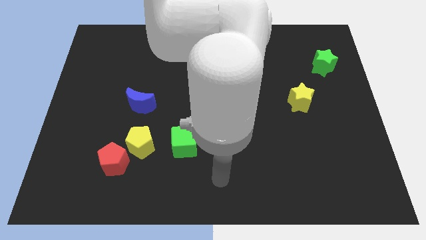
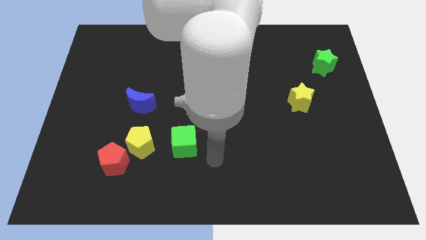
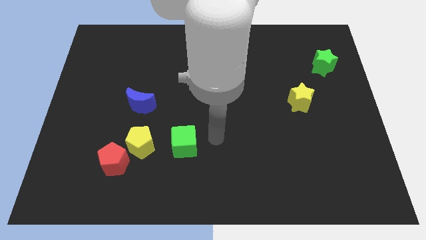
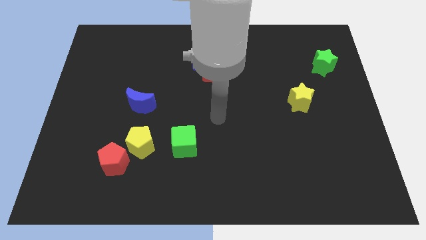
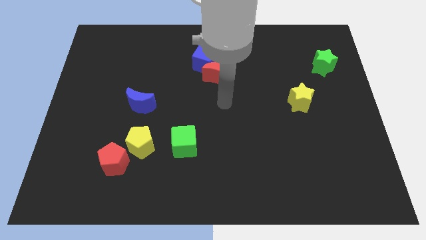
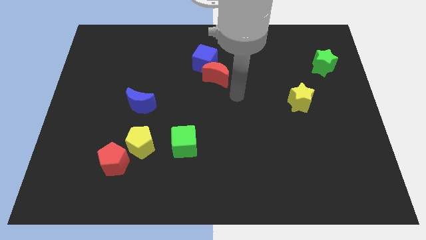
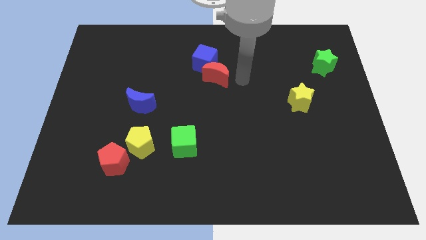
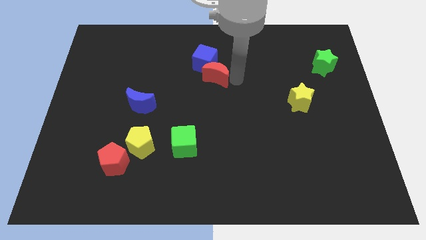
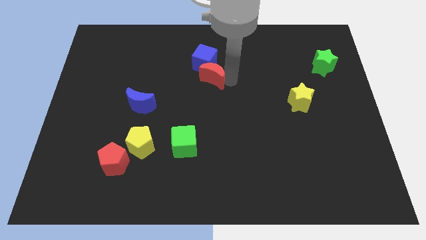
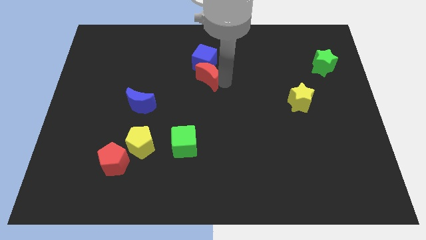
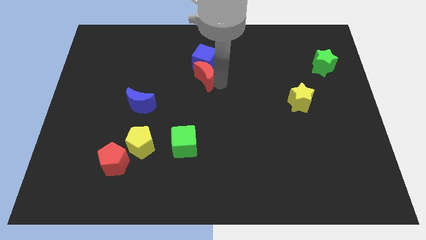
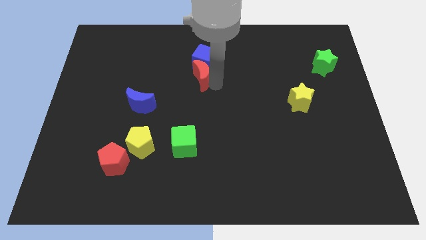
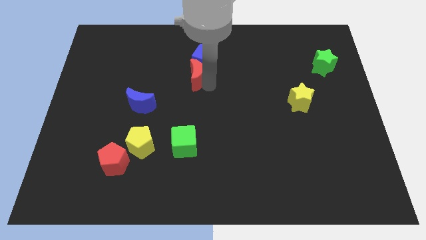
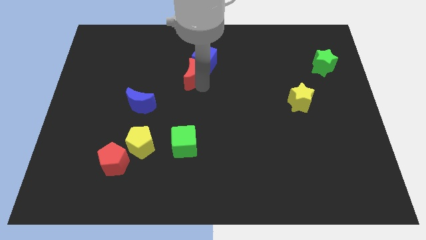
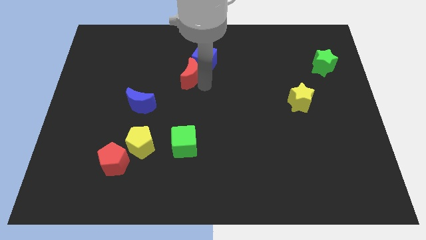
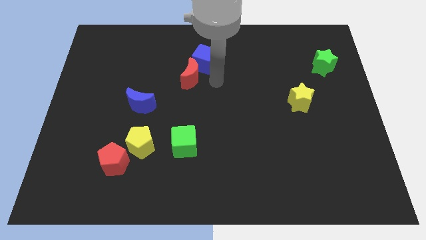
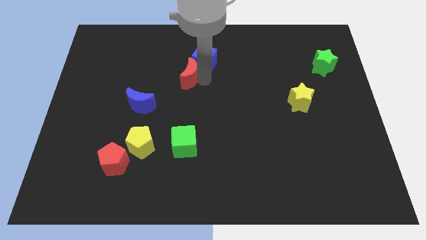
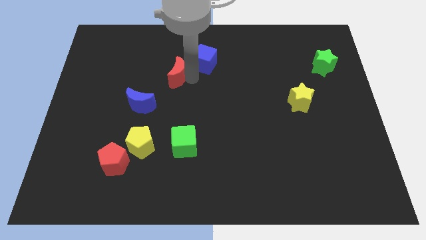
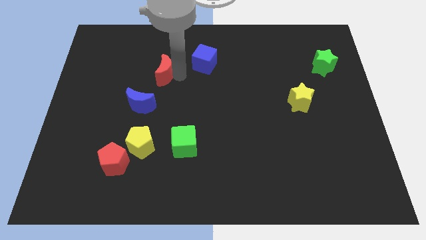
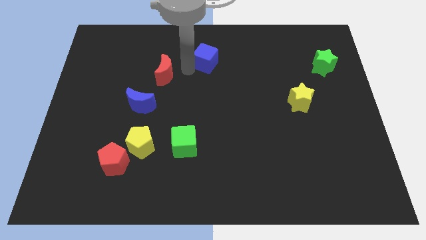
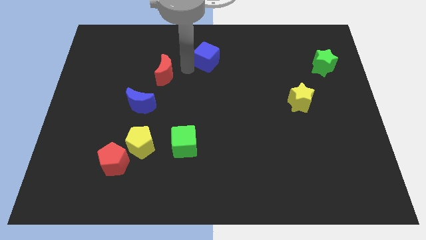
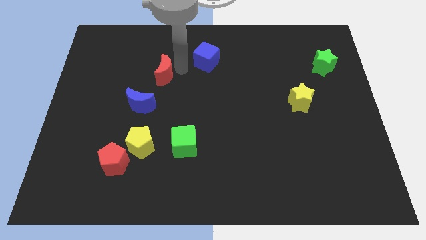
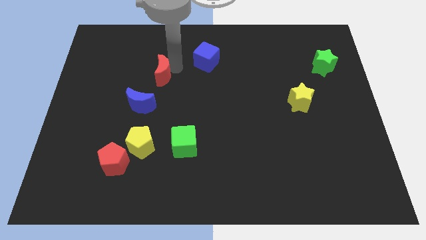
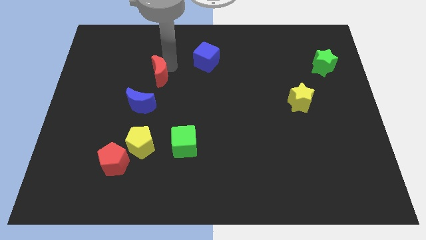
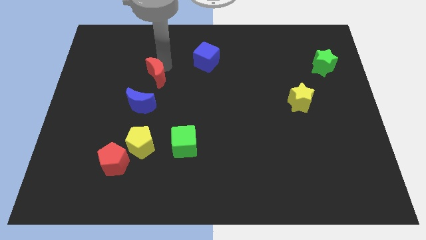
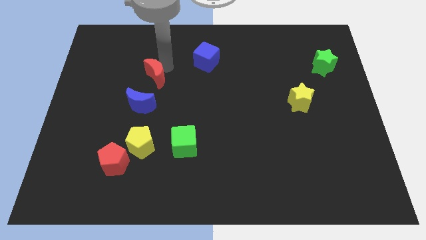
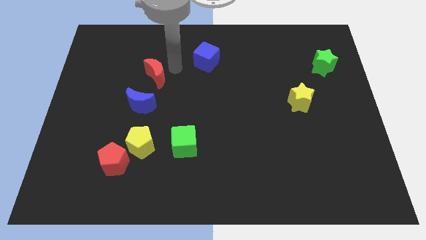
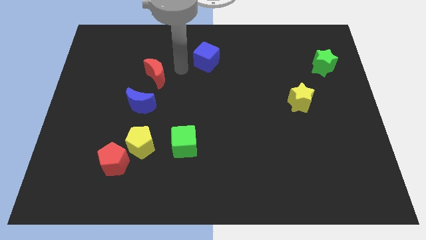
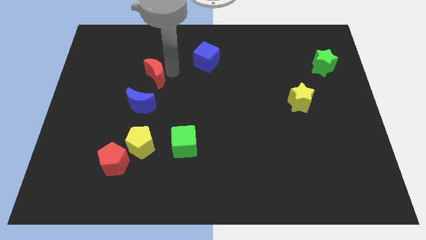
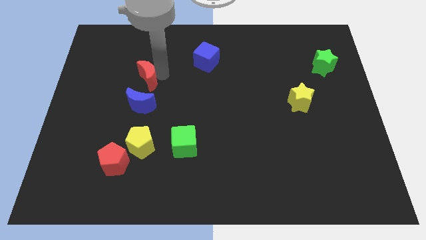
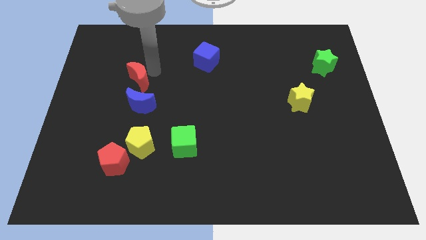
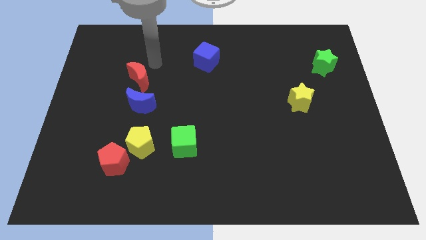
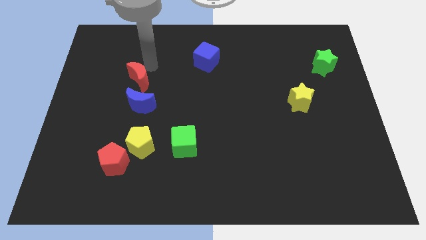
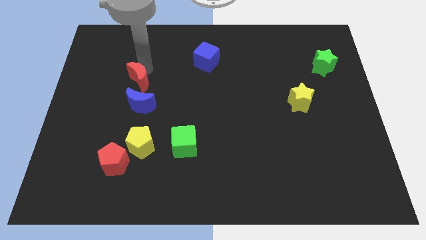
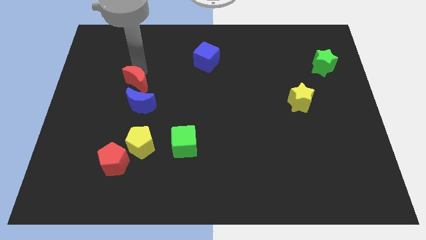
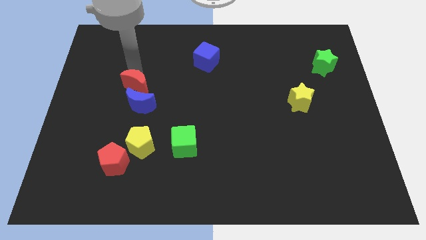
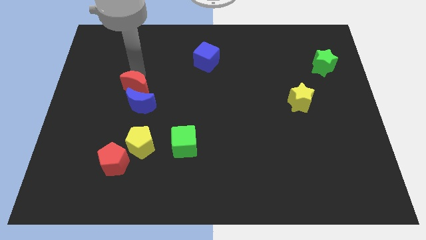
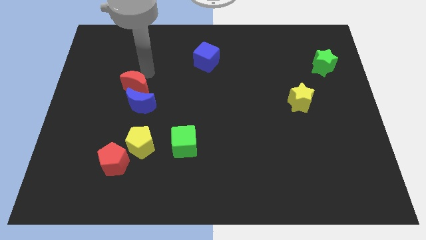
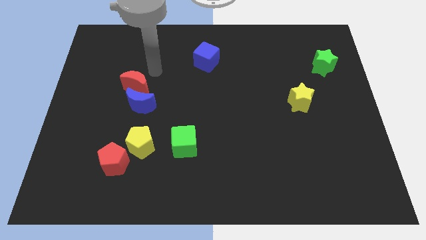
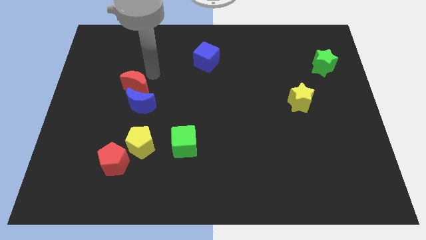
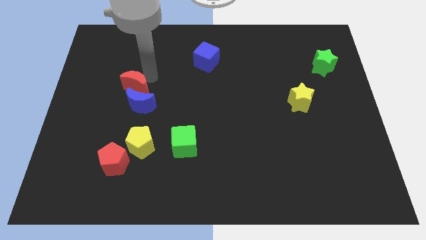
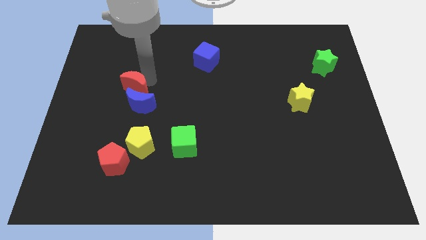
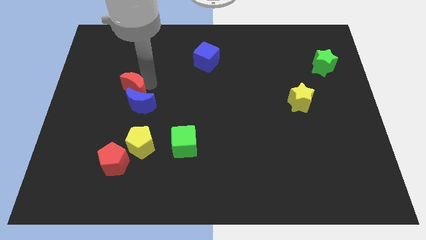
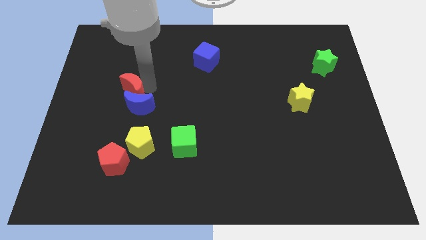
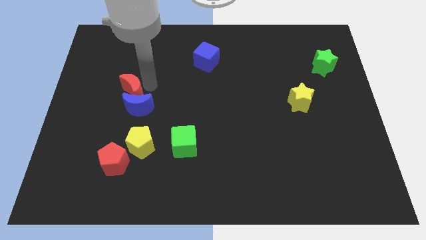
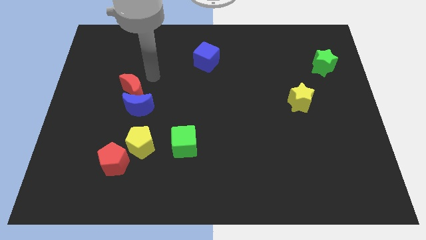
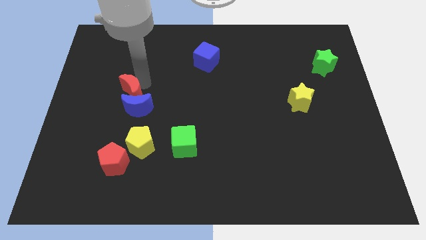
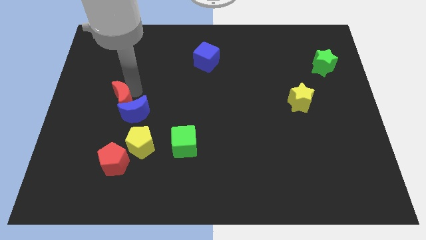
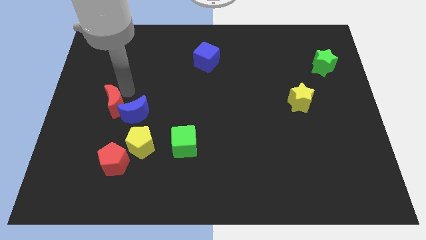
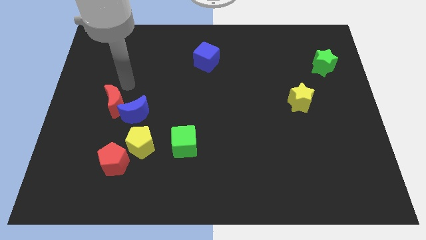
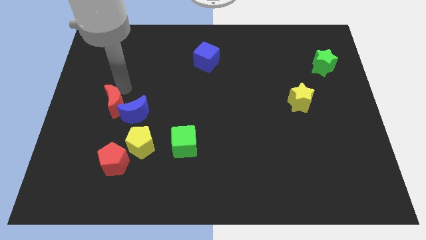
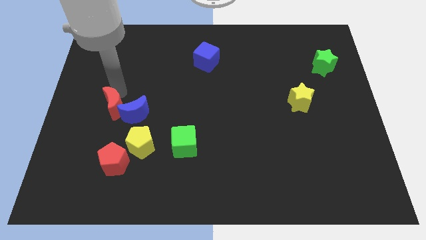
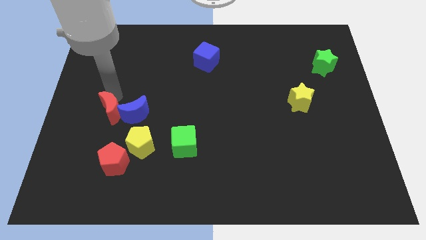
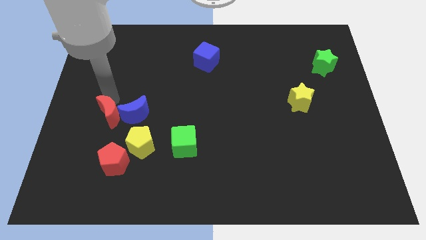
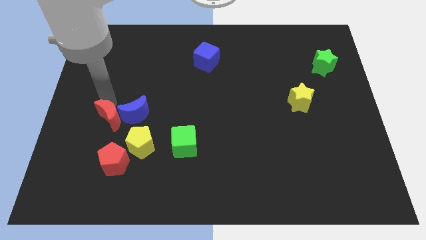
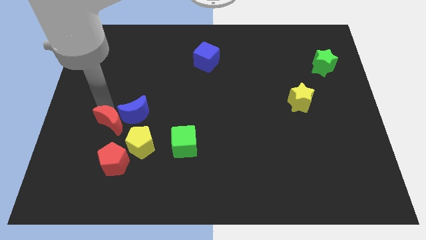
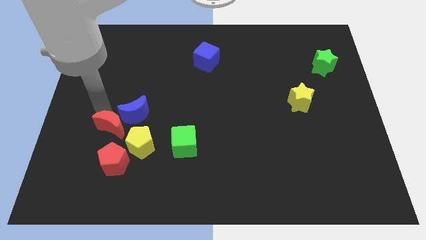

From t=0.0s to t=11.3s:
put the red moon to the left side of the yellow pentagon

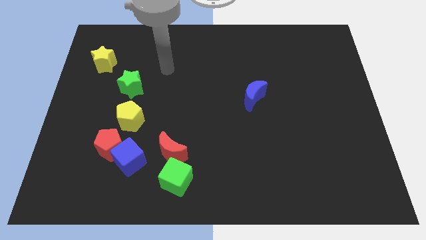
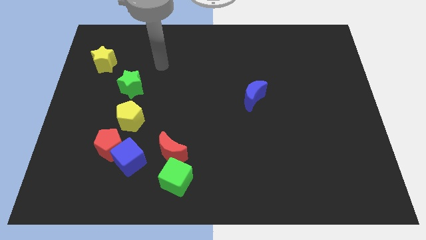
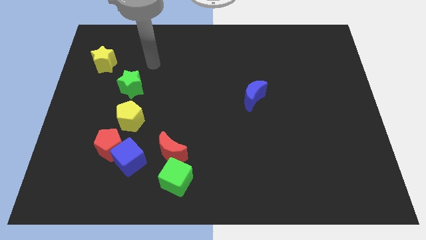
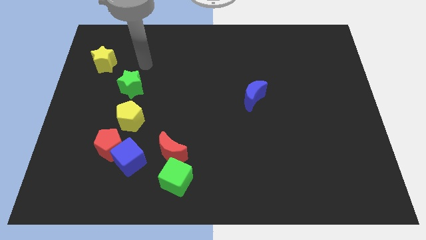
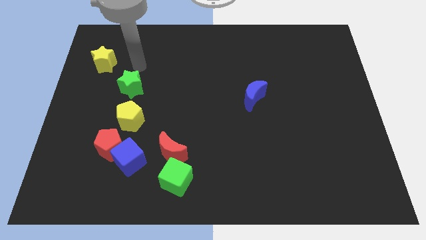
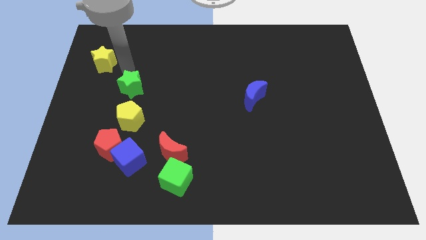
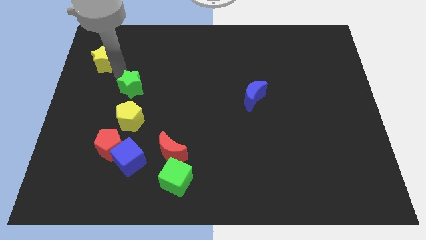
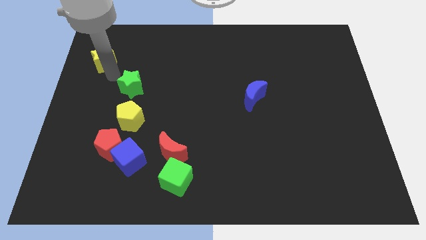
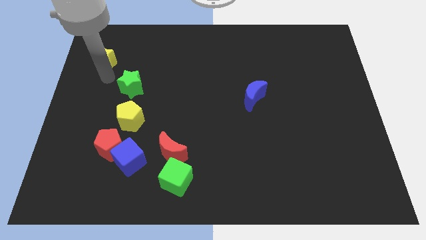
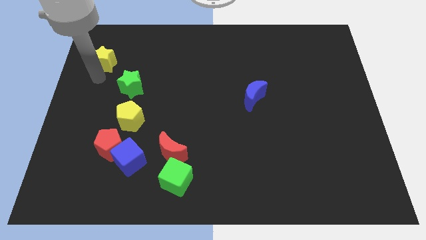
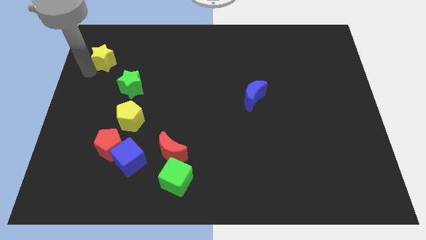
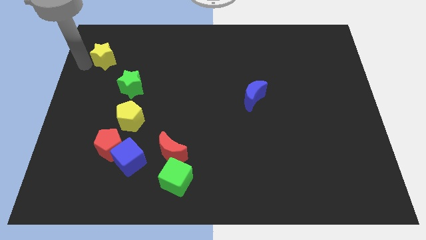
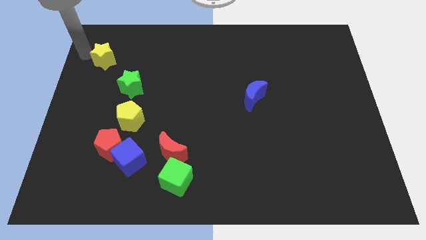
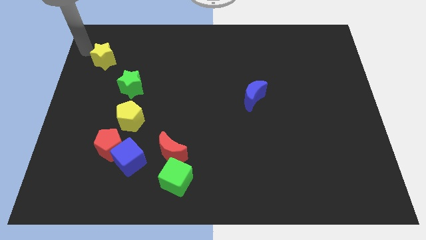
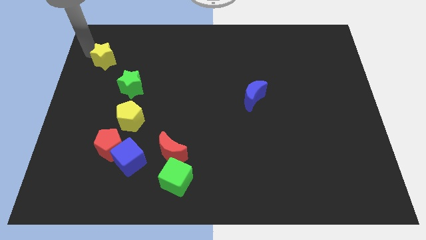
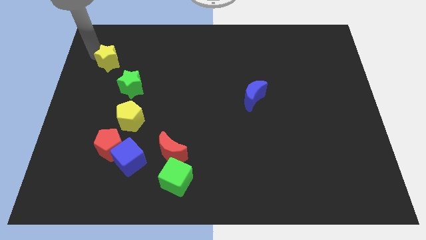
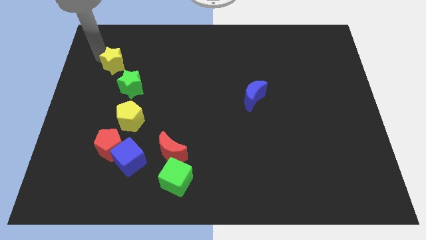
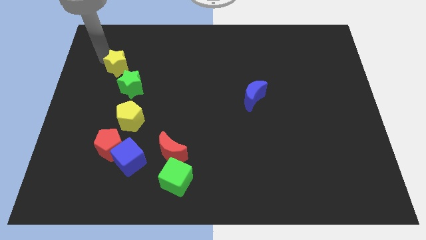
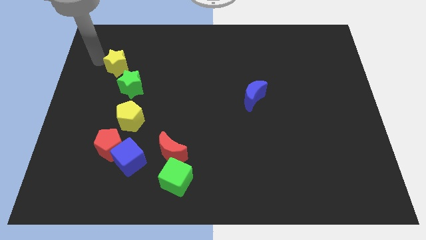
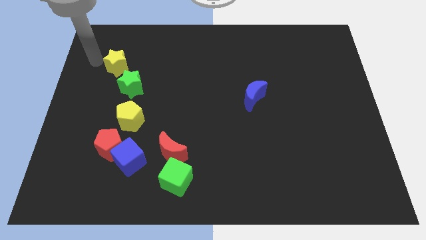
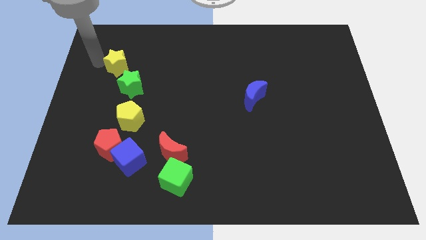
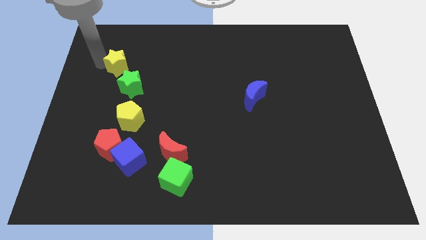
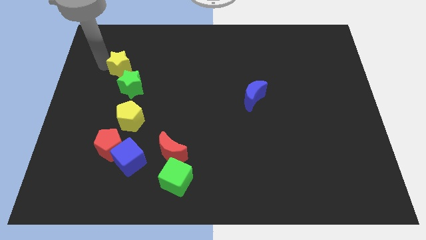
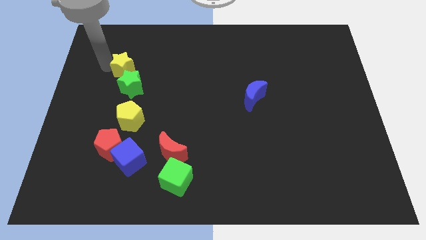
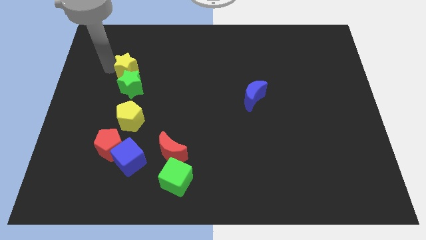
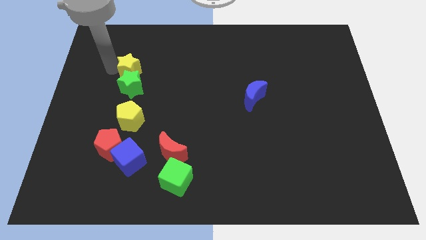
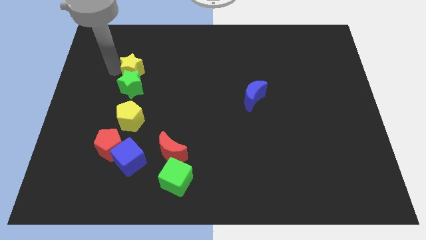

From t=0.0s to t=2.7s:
slide the yellow star diagonally up and to the right of the green star
